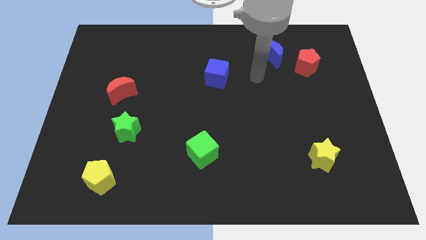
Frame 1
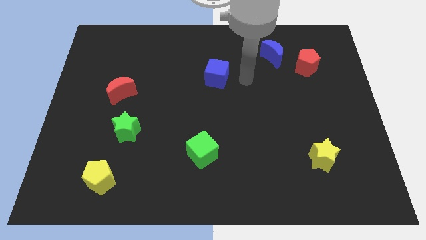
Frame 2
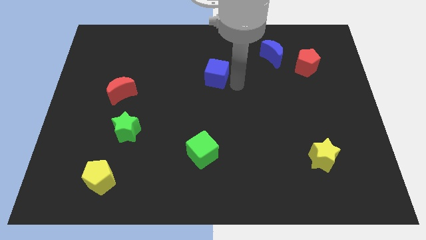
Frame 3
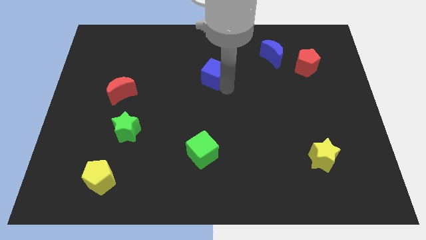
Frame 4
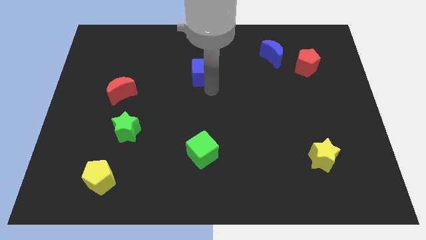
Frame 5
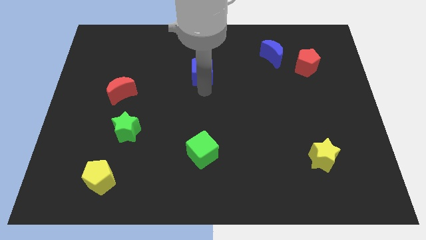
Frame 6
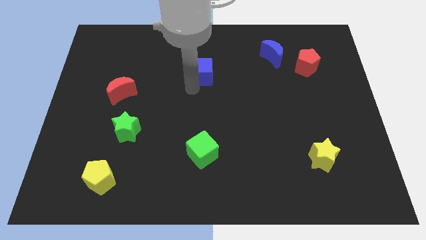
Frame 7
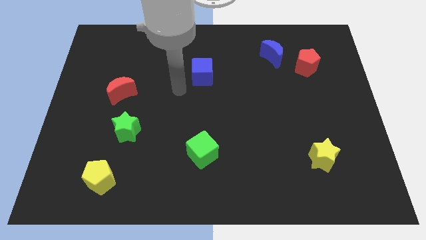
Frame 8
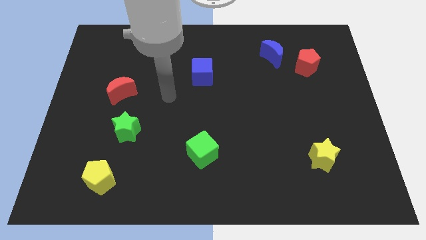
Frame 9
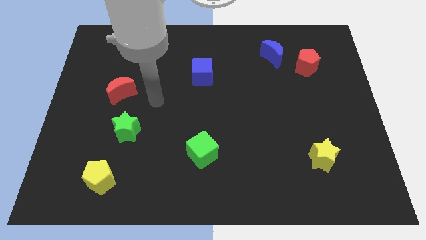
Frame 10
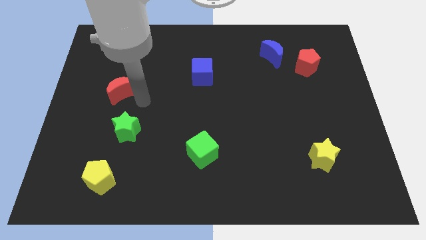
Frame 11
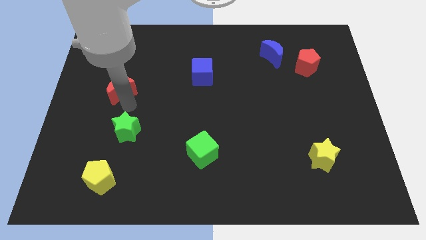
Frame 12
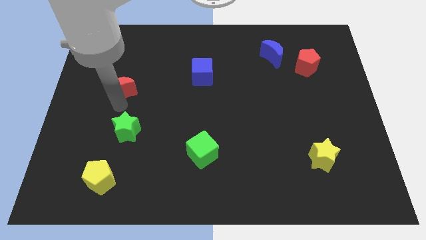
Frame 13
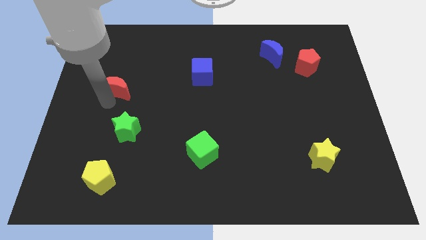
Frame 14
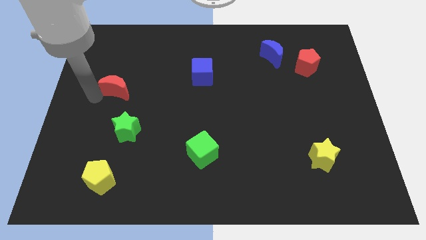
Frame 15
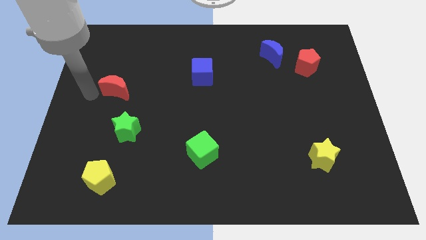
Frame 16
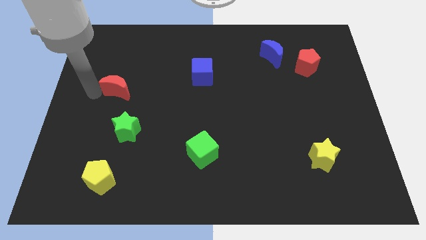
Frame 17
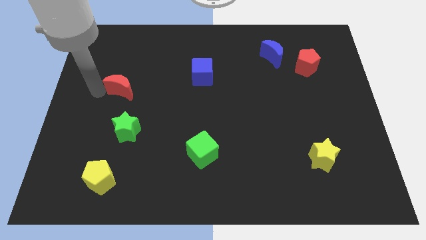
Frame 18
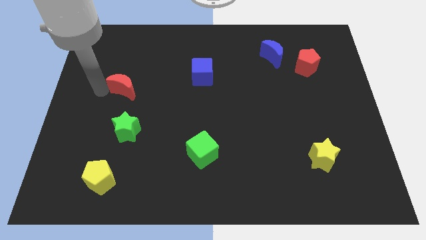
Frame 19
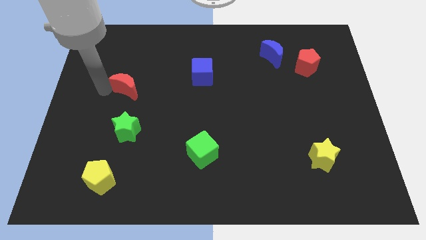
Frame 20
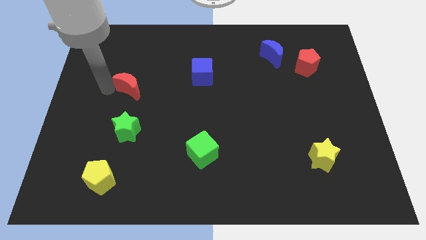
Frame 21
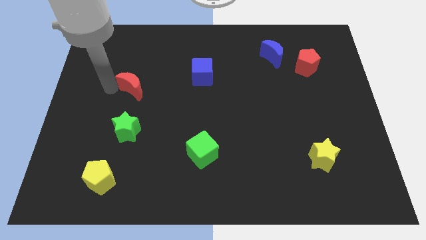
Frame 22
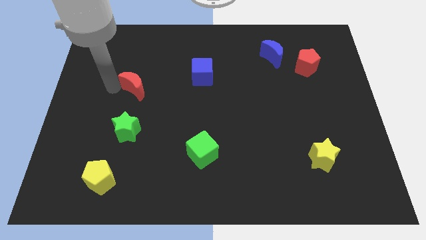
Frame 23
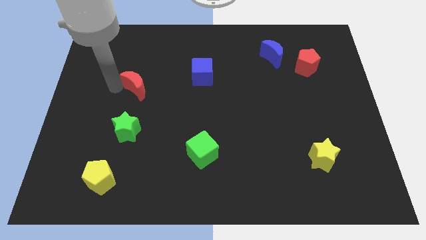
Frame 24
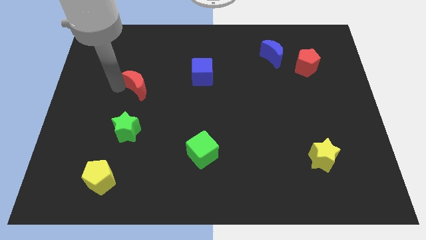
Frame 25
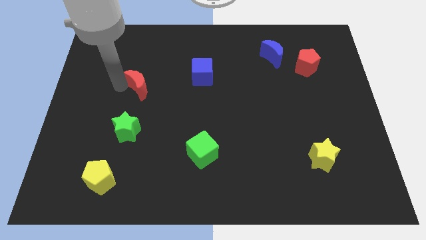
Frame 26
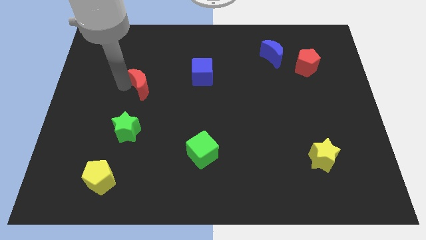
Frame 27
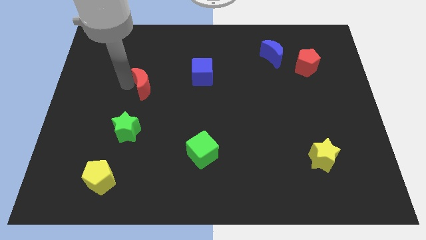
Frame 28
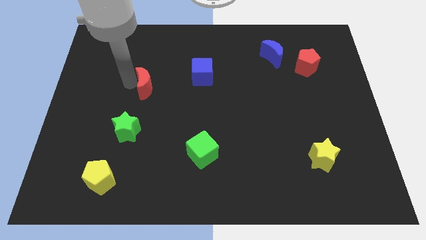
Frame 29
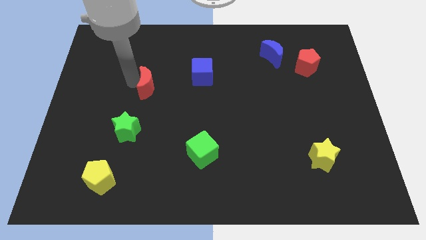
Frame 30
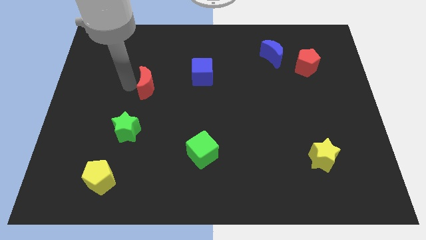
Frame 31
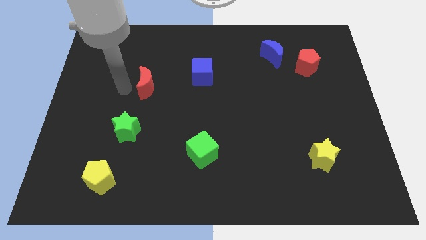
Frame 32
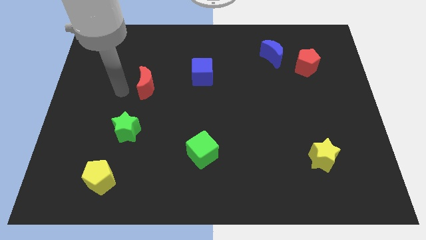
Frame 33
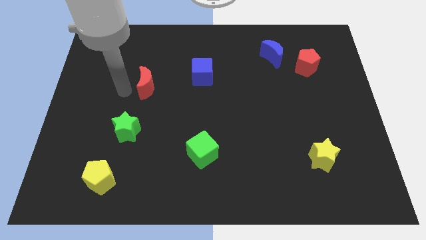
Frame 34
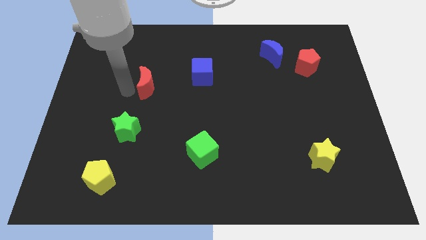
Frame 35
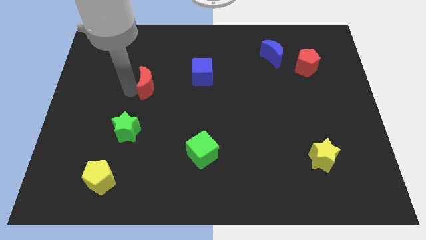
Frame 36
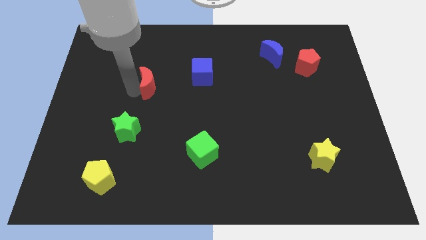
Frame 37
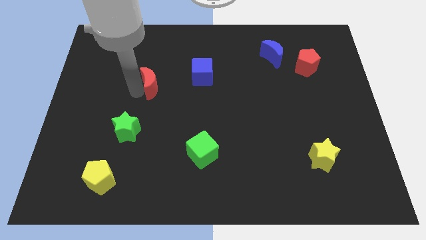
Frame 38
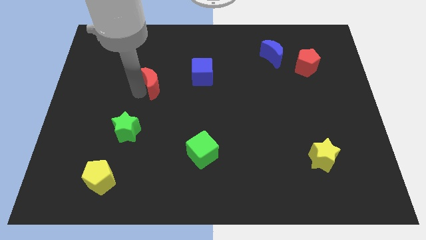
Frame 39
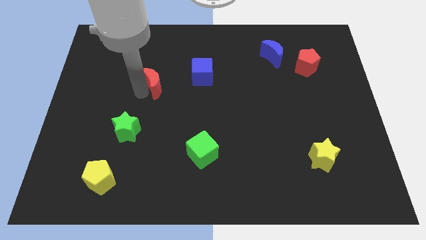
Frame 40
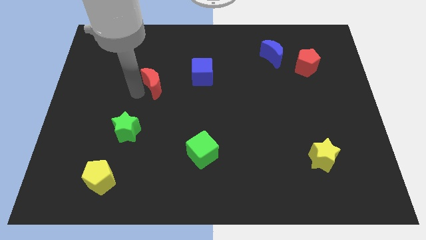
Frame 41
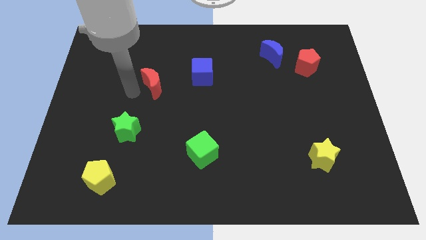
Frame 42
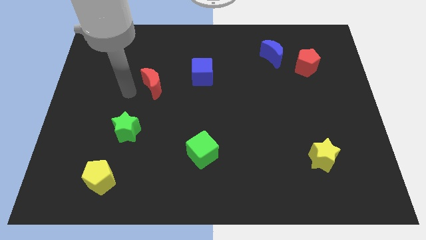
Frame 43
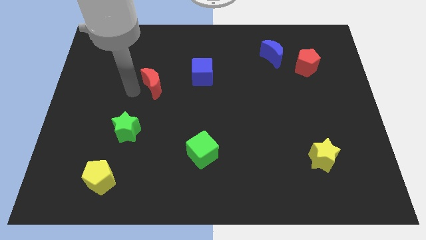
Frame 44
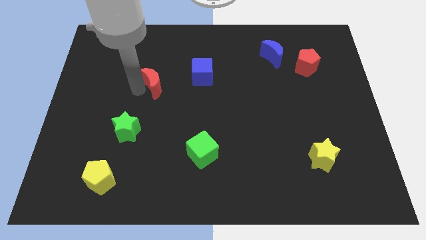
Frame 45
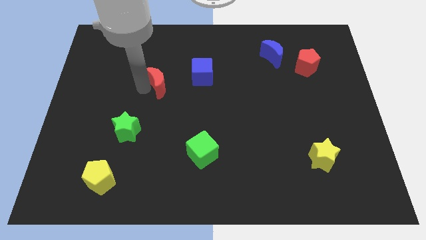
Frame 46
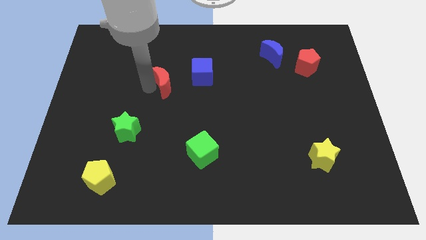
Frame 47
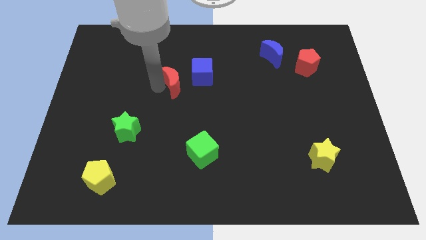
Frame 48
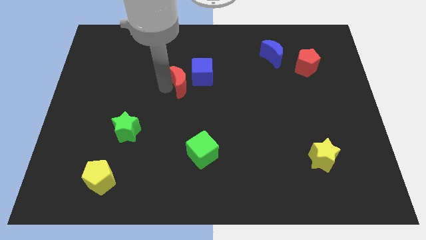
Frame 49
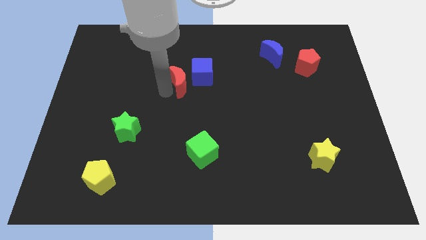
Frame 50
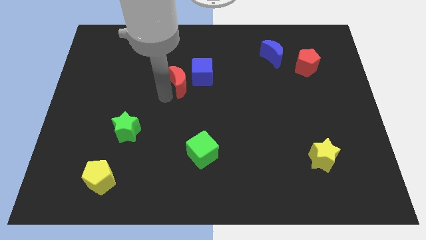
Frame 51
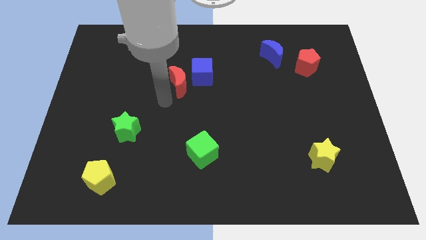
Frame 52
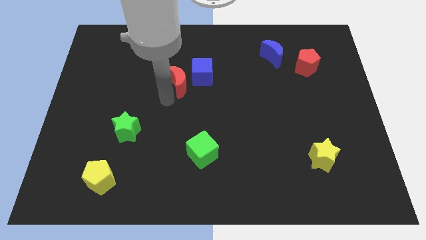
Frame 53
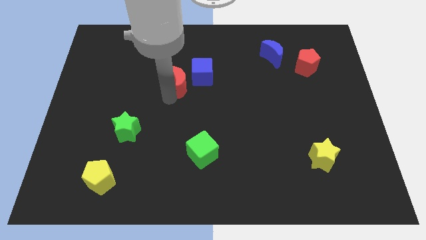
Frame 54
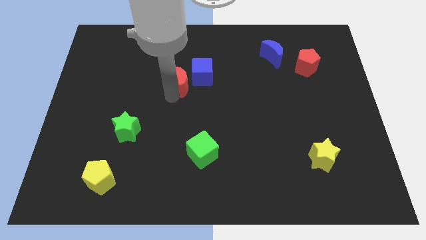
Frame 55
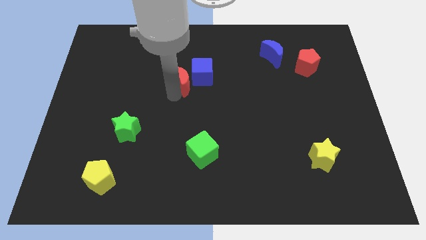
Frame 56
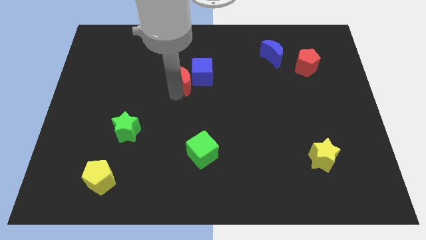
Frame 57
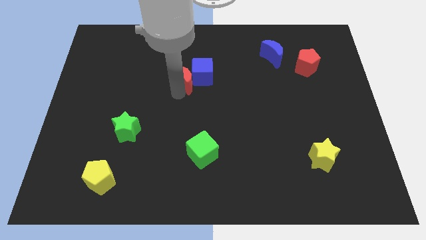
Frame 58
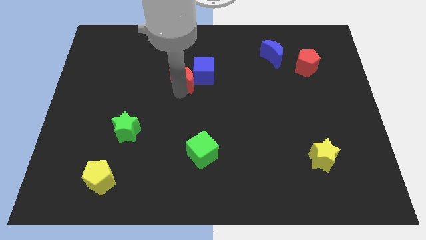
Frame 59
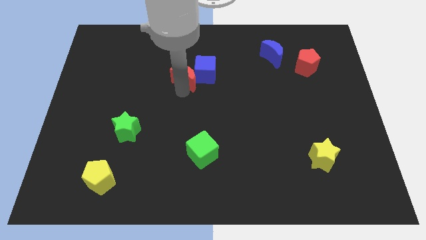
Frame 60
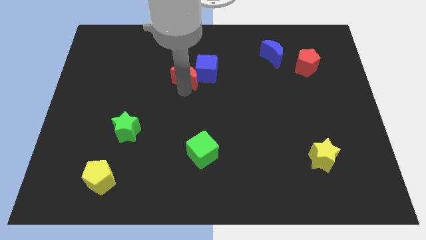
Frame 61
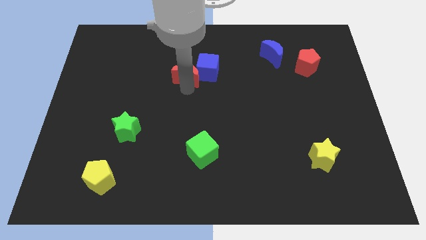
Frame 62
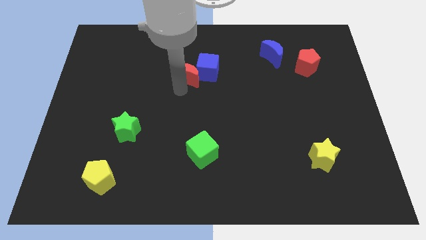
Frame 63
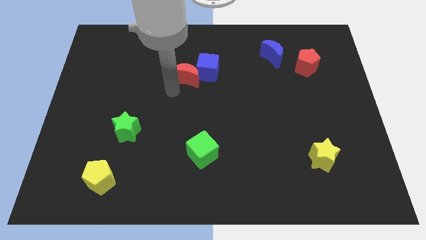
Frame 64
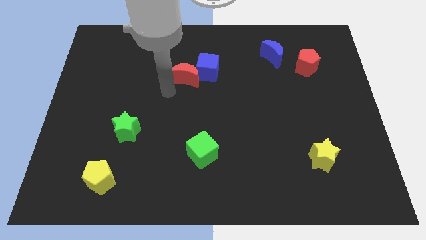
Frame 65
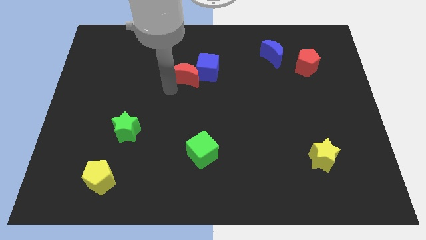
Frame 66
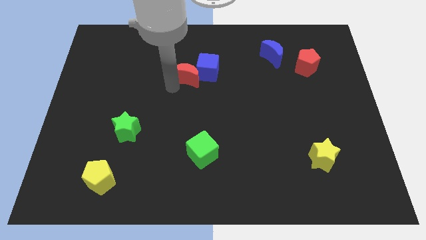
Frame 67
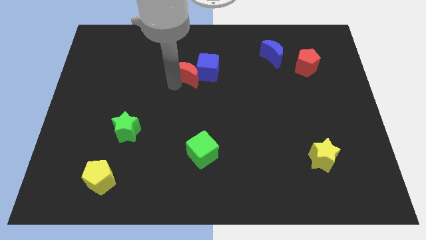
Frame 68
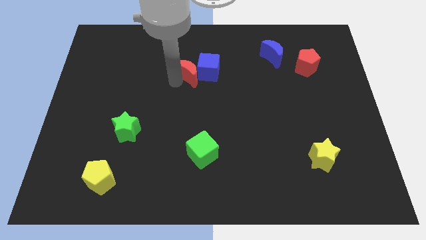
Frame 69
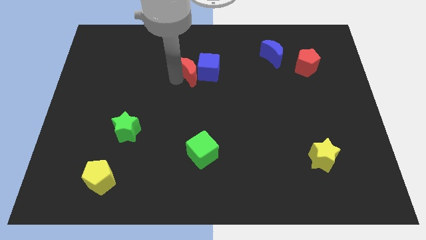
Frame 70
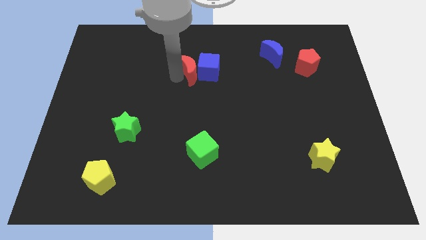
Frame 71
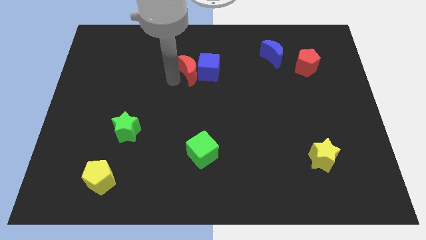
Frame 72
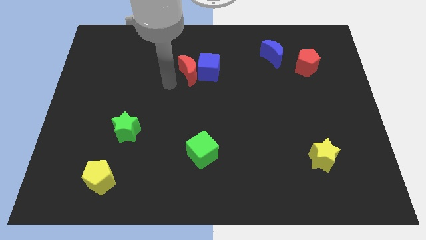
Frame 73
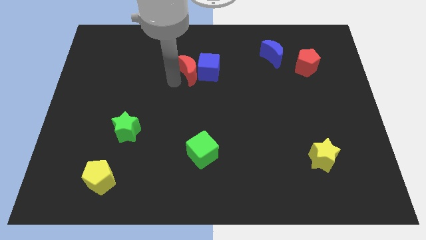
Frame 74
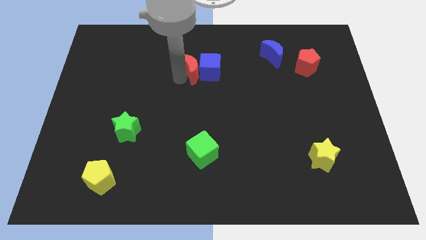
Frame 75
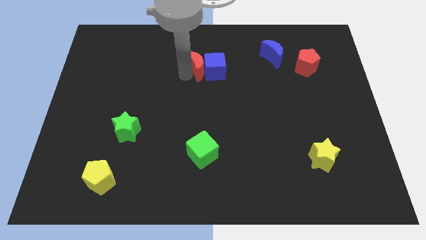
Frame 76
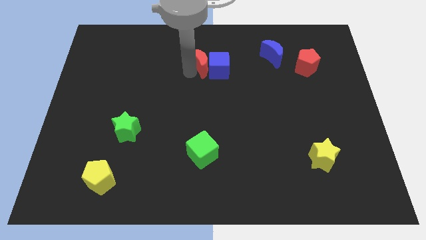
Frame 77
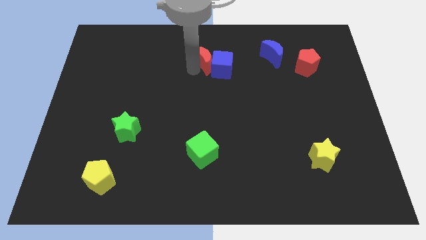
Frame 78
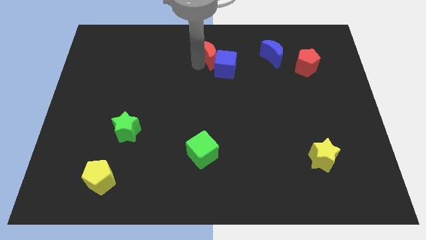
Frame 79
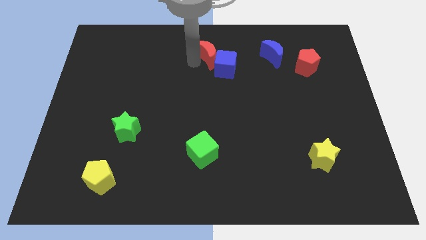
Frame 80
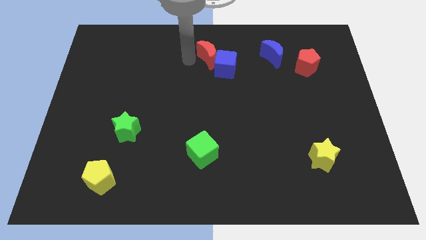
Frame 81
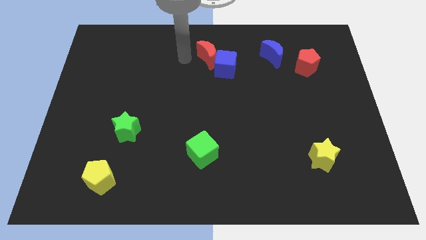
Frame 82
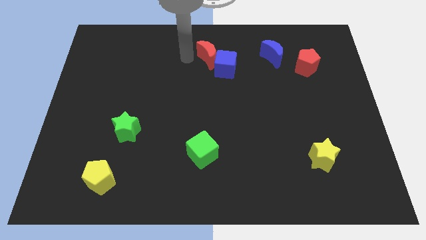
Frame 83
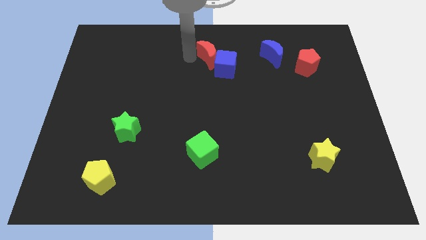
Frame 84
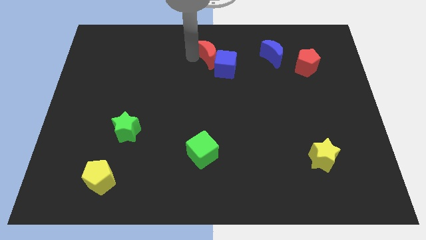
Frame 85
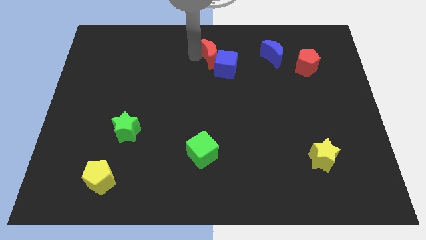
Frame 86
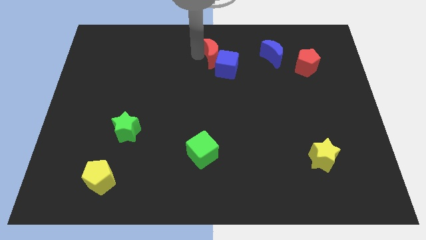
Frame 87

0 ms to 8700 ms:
move the red moon to the left of the blue moon
